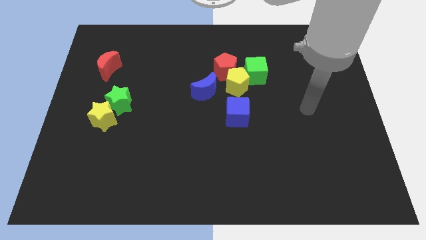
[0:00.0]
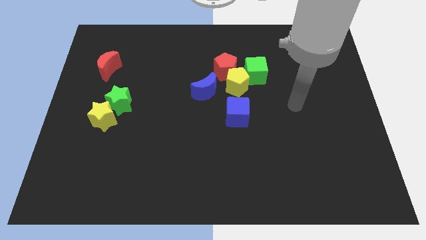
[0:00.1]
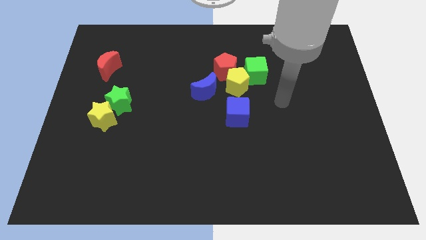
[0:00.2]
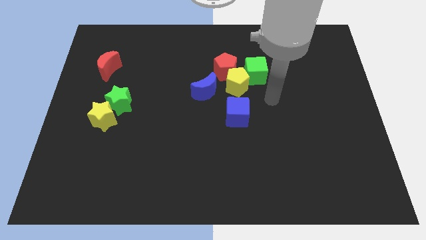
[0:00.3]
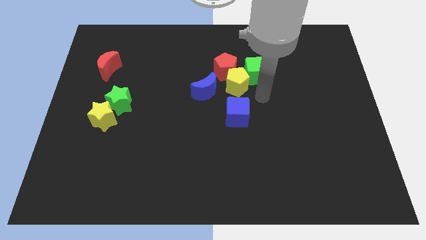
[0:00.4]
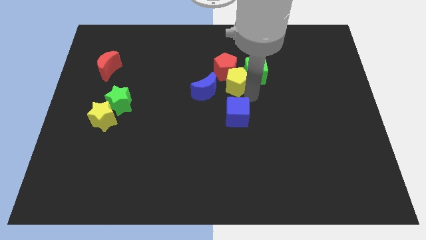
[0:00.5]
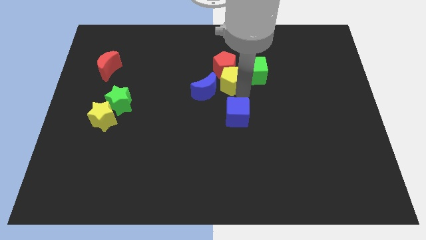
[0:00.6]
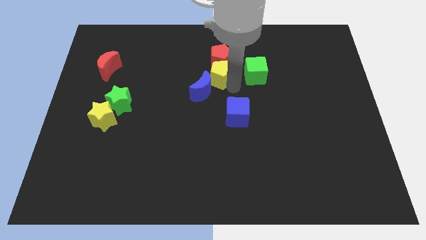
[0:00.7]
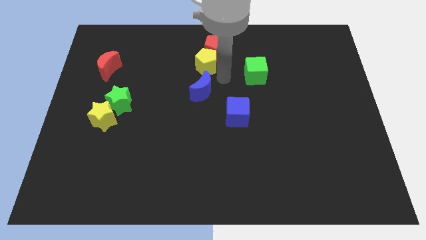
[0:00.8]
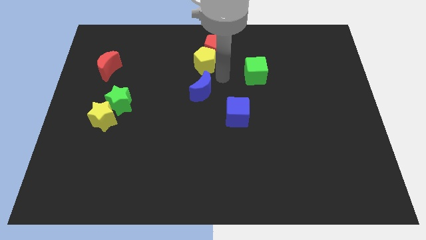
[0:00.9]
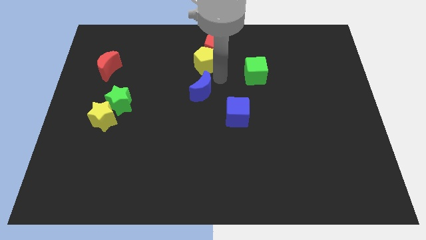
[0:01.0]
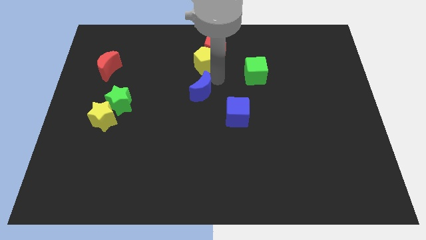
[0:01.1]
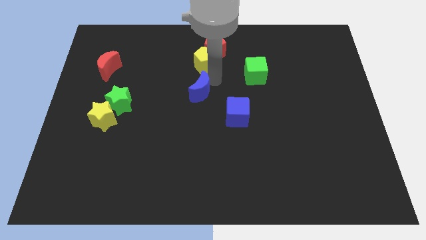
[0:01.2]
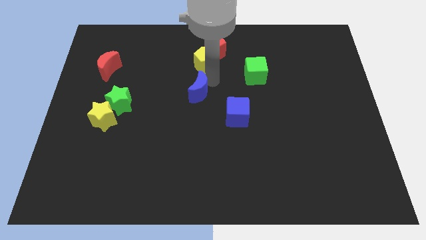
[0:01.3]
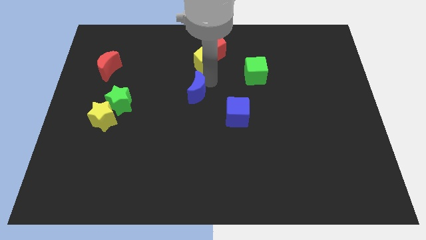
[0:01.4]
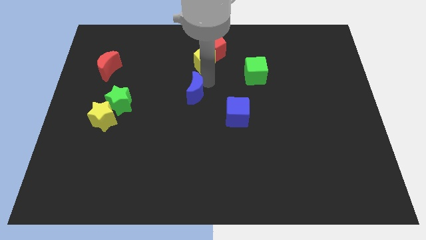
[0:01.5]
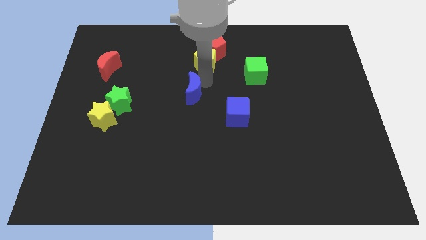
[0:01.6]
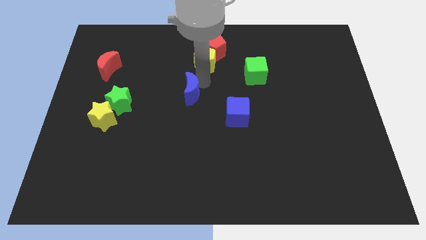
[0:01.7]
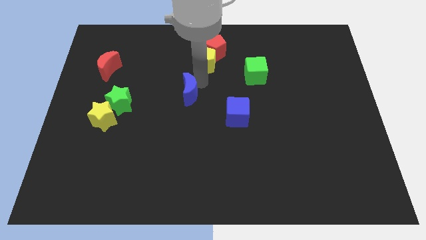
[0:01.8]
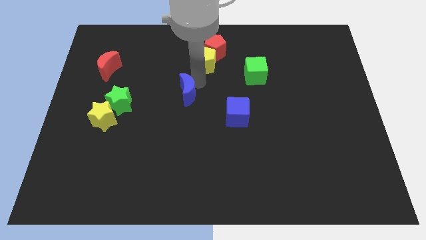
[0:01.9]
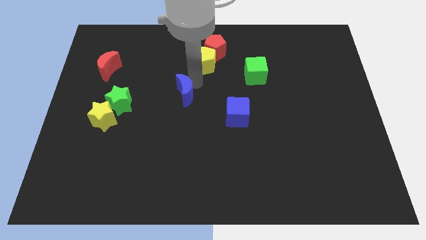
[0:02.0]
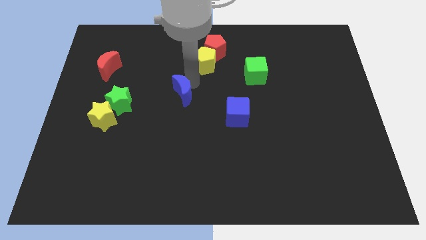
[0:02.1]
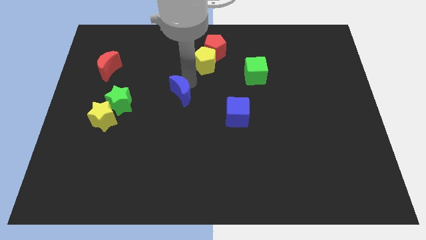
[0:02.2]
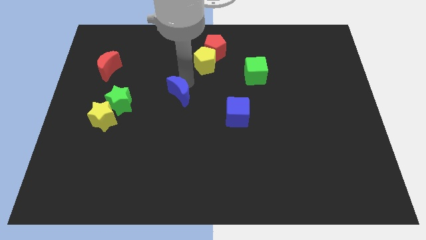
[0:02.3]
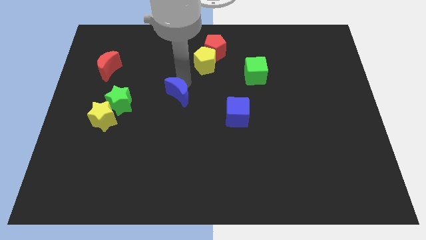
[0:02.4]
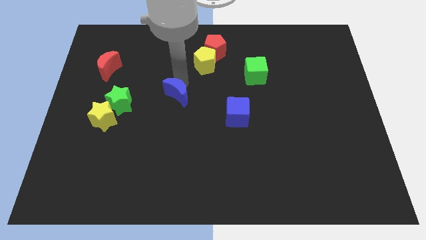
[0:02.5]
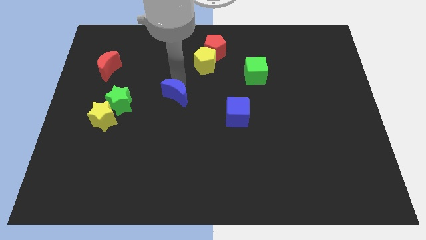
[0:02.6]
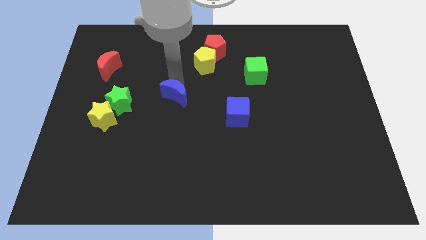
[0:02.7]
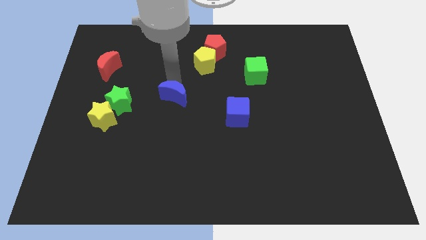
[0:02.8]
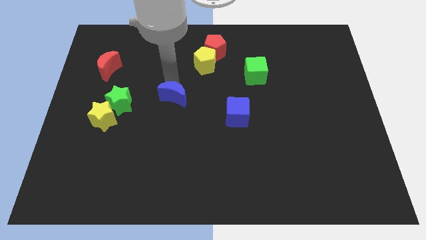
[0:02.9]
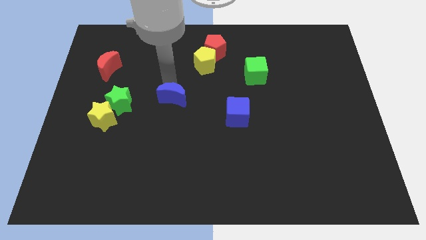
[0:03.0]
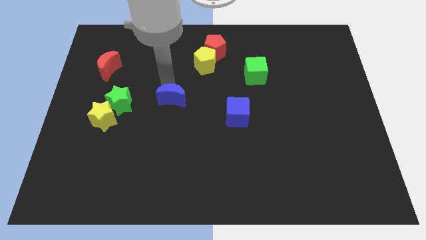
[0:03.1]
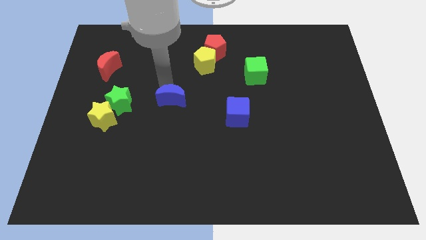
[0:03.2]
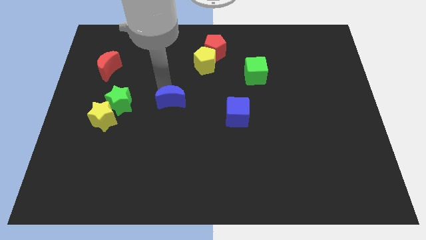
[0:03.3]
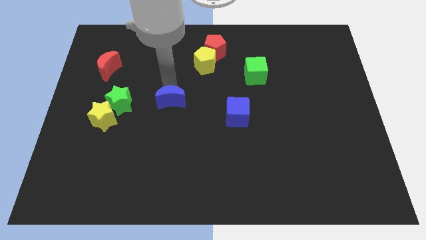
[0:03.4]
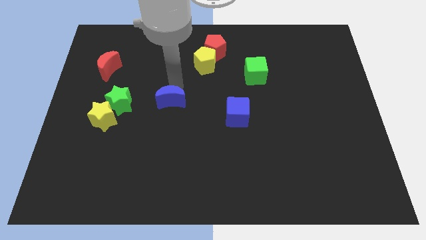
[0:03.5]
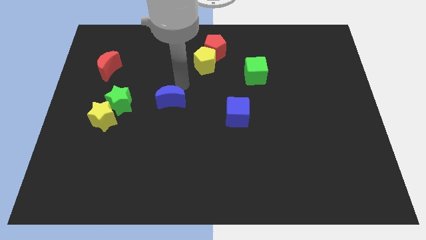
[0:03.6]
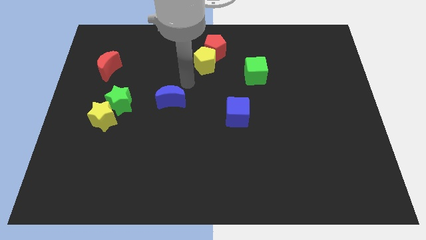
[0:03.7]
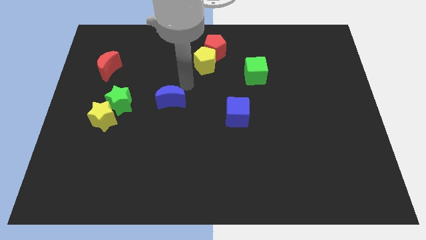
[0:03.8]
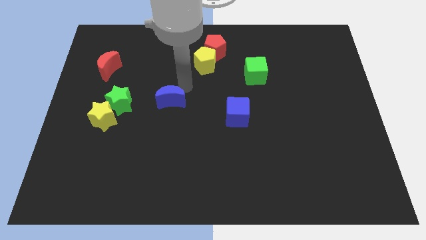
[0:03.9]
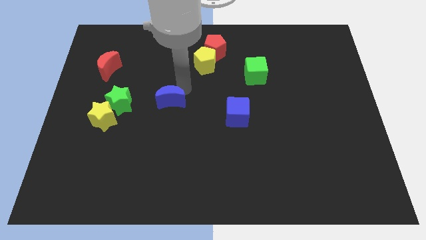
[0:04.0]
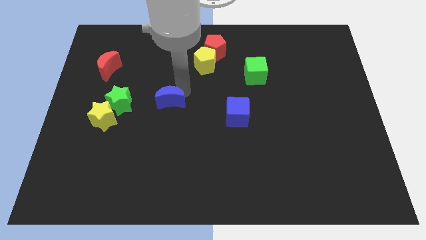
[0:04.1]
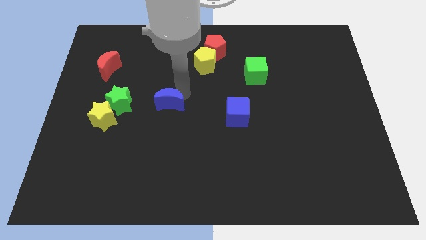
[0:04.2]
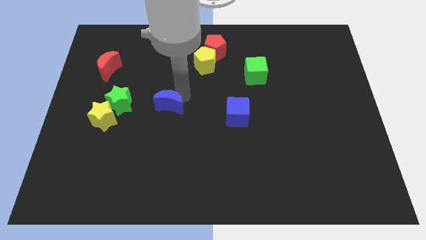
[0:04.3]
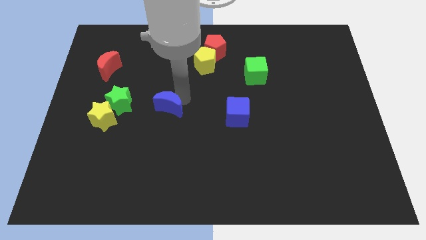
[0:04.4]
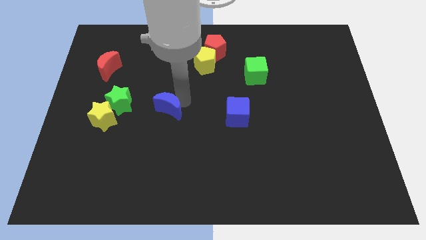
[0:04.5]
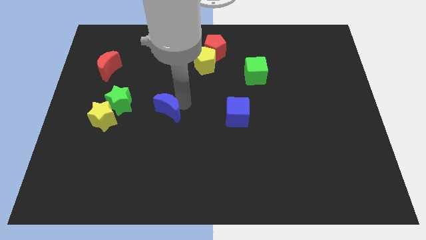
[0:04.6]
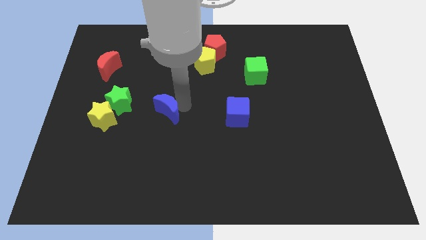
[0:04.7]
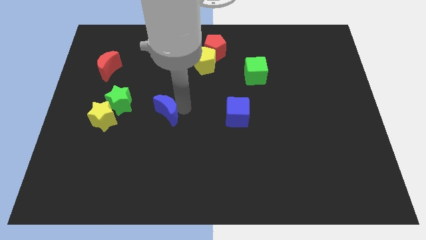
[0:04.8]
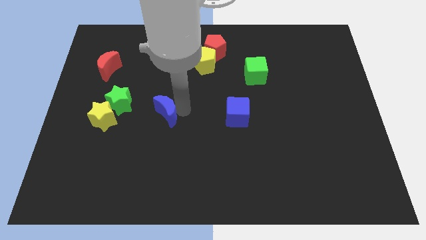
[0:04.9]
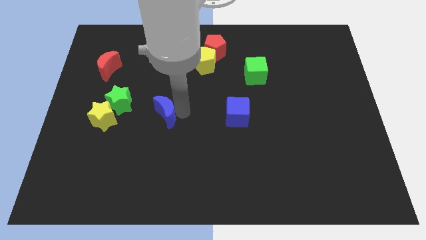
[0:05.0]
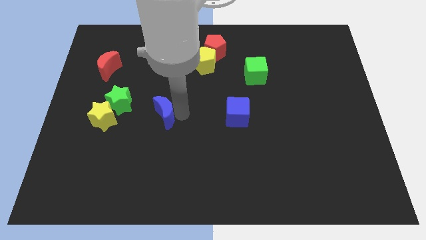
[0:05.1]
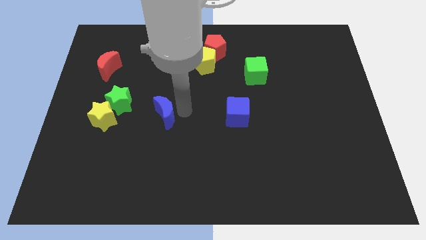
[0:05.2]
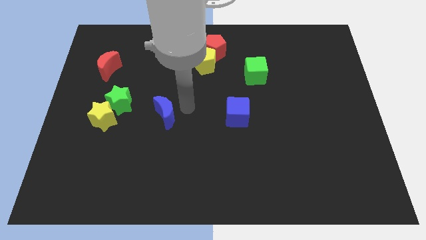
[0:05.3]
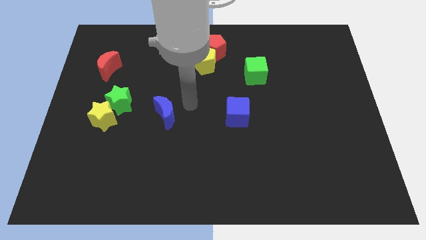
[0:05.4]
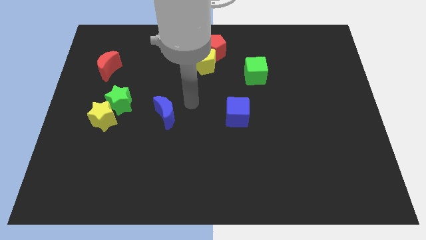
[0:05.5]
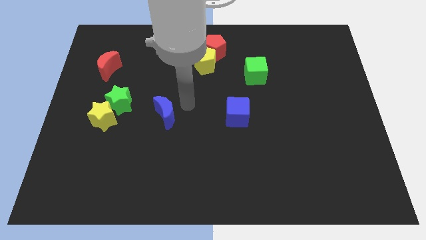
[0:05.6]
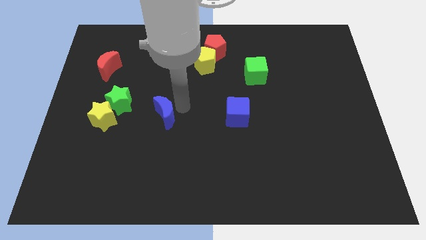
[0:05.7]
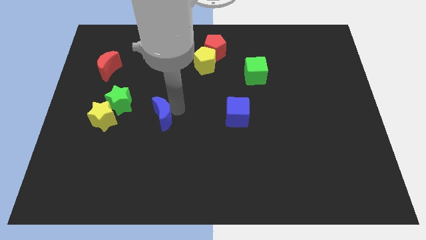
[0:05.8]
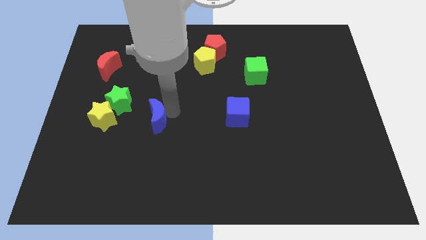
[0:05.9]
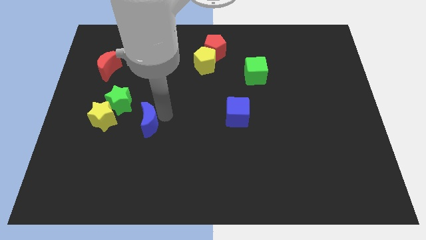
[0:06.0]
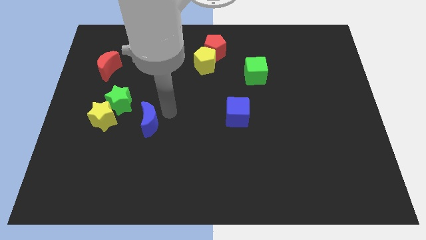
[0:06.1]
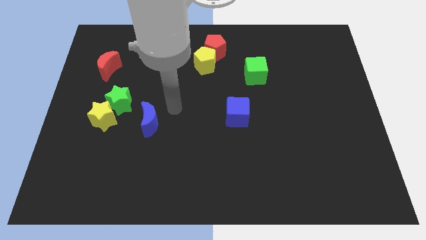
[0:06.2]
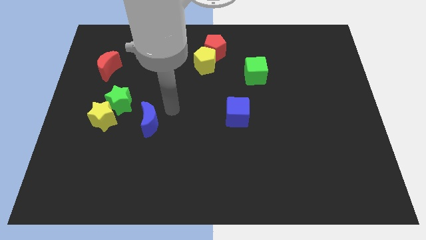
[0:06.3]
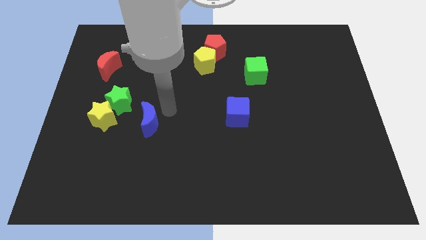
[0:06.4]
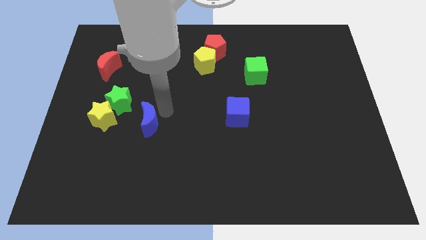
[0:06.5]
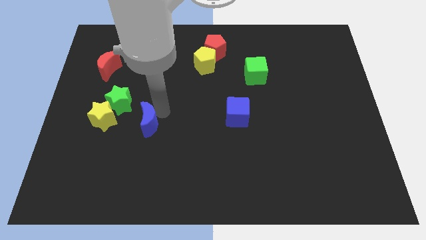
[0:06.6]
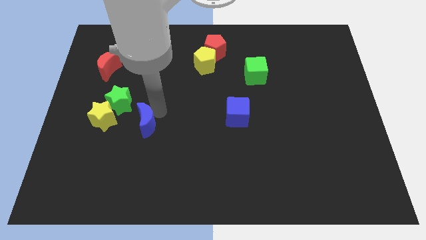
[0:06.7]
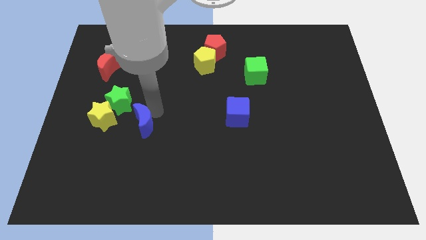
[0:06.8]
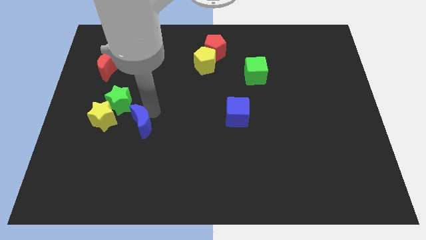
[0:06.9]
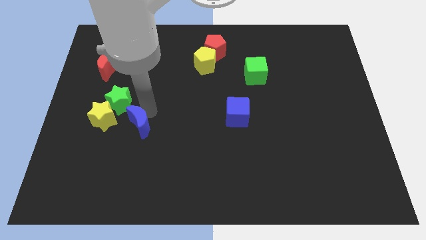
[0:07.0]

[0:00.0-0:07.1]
put the blue moon diagonally down and to the right of the yellow star
